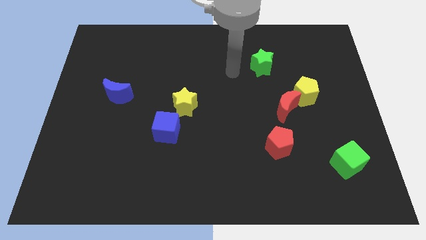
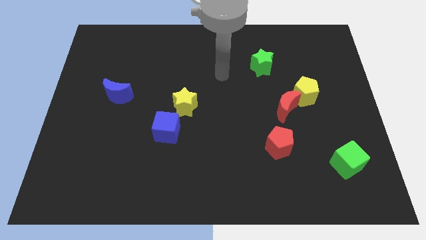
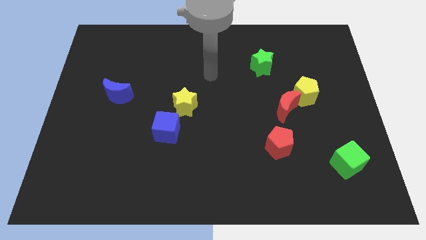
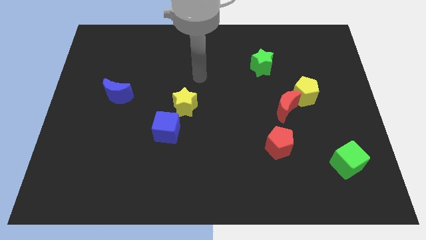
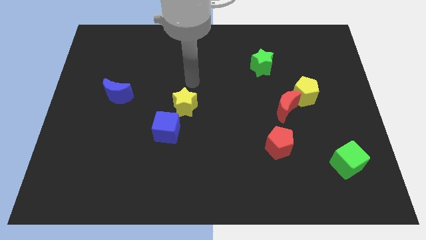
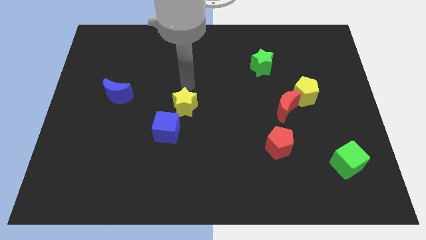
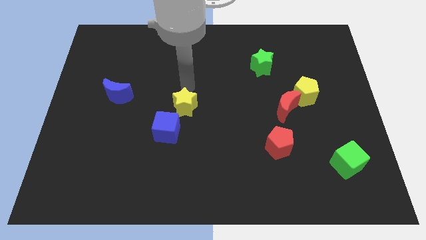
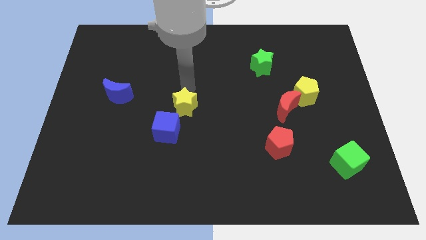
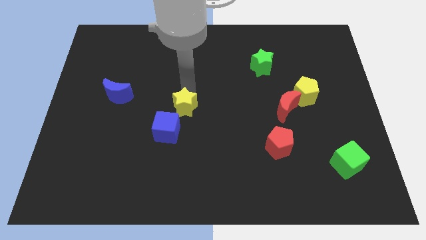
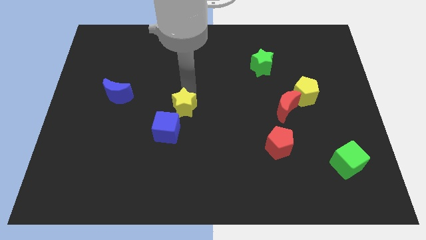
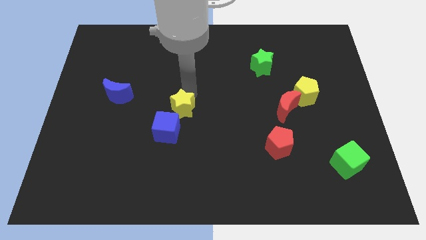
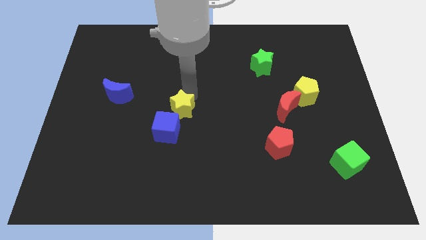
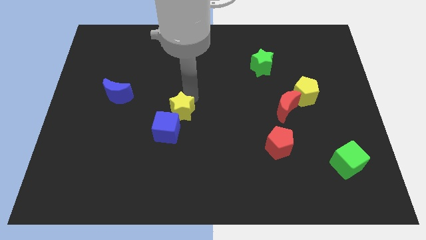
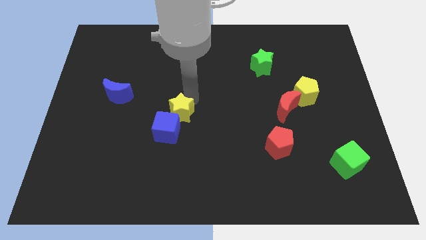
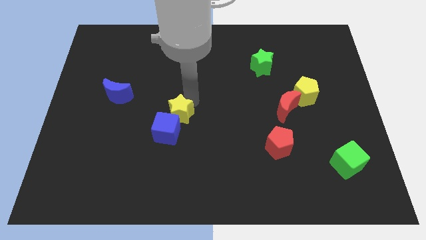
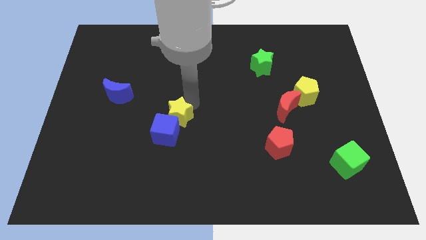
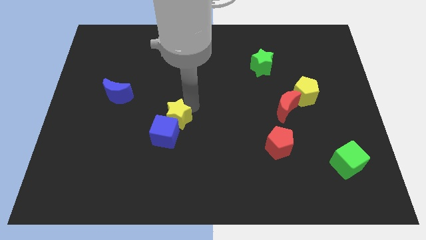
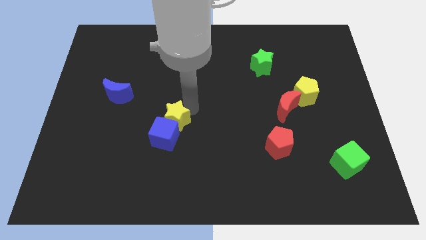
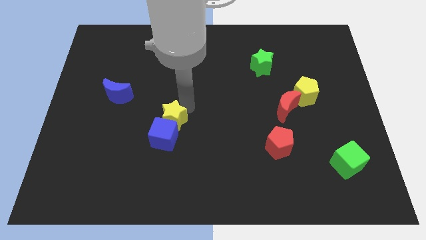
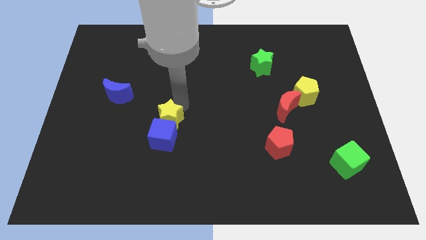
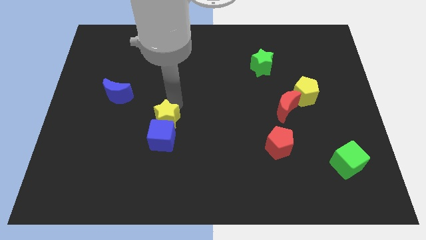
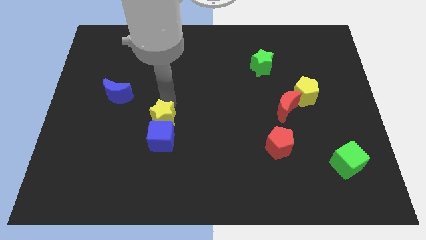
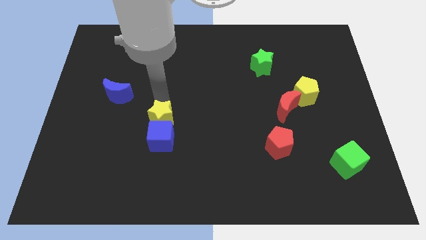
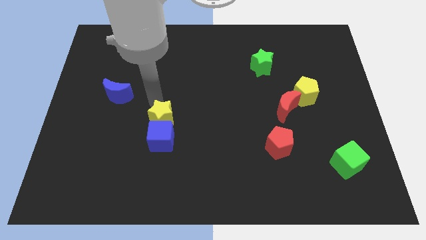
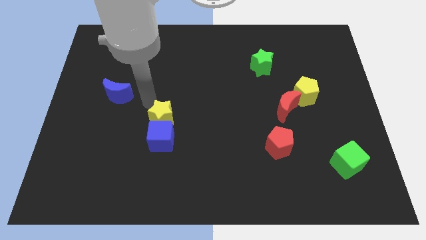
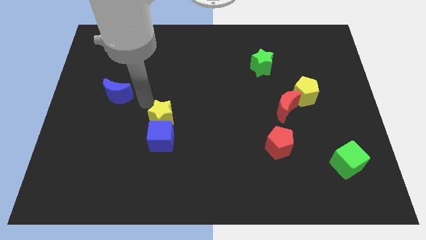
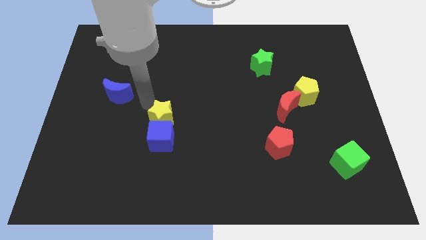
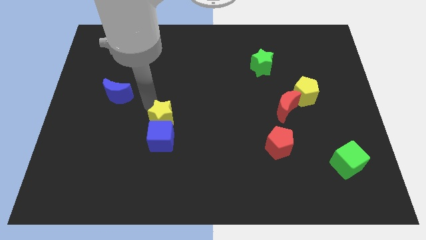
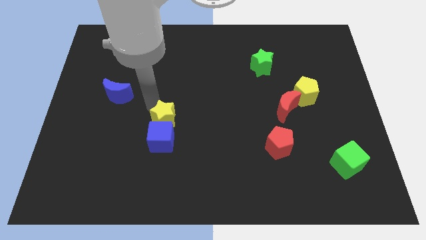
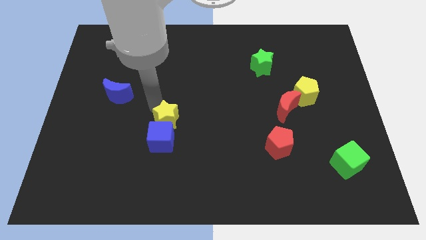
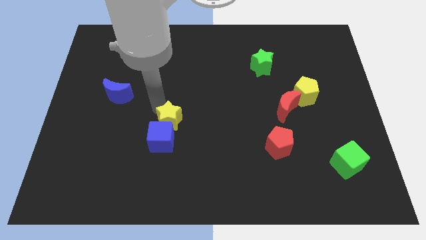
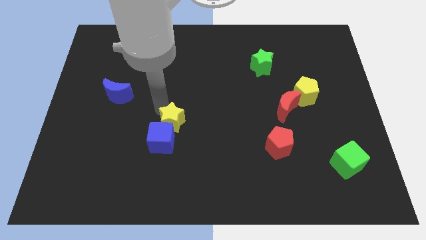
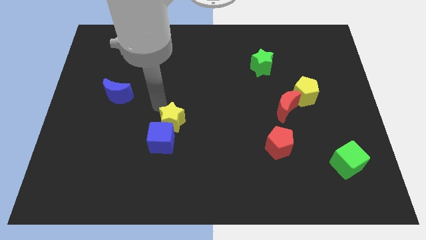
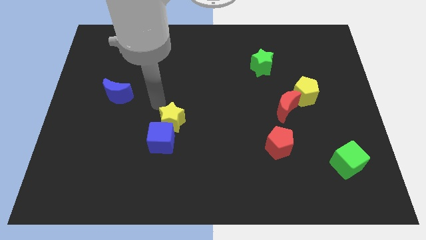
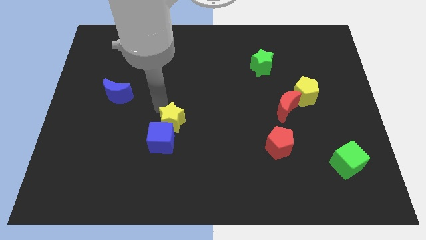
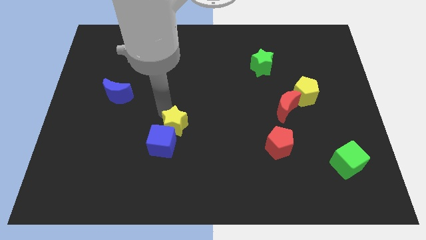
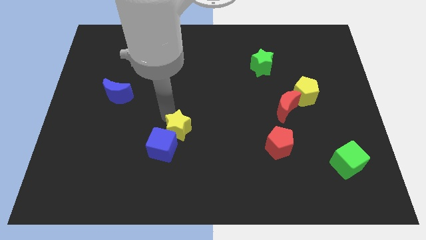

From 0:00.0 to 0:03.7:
move the yellow star downwards slightly

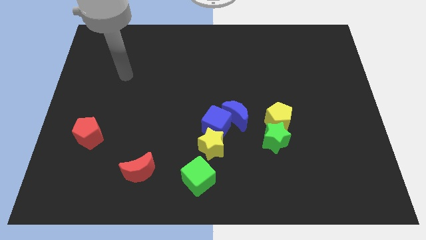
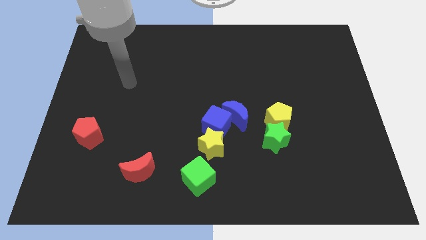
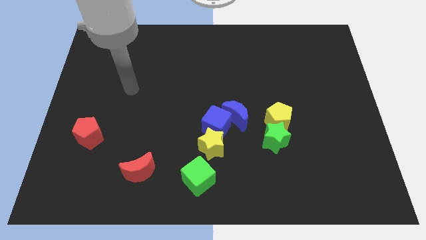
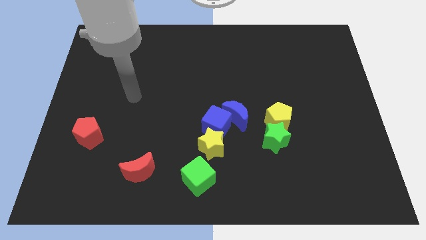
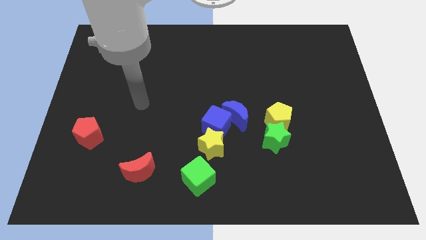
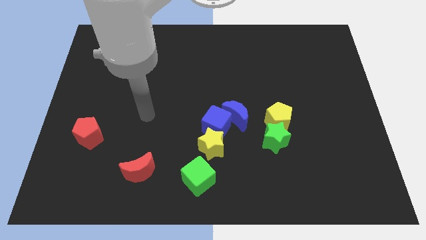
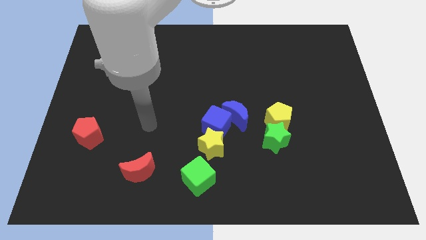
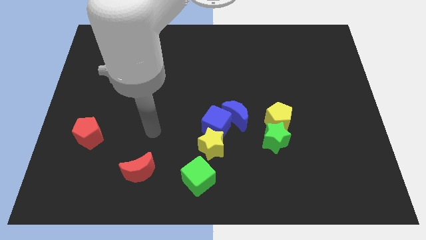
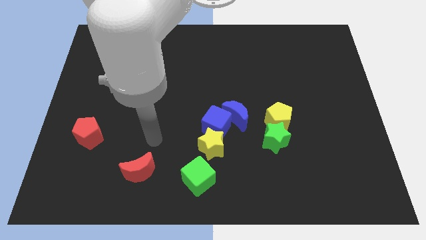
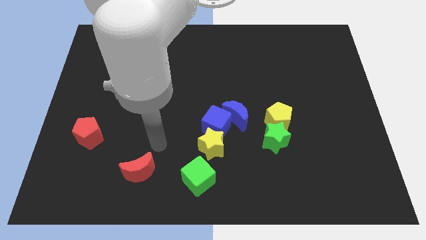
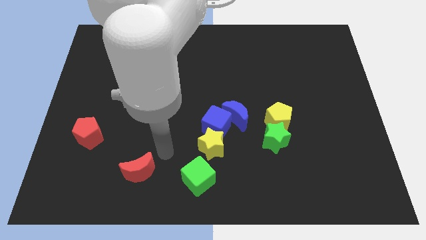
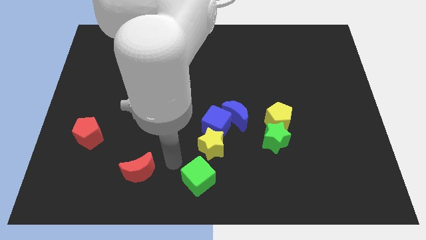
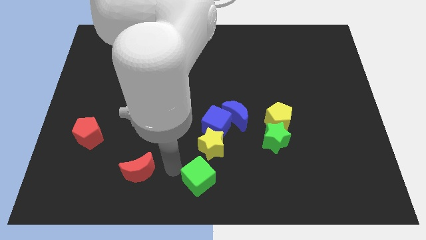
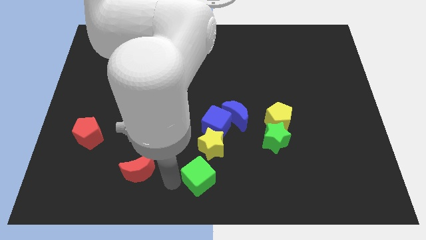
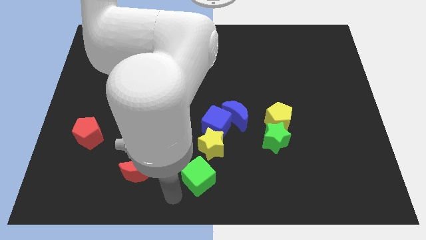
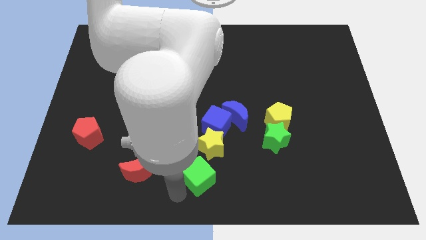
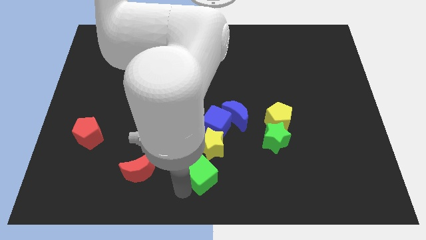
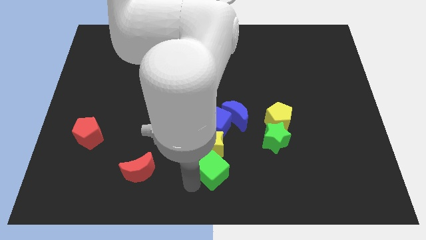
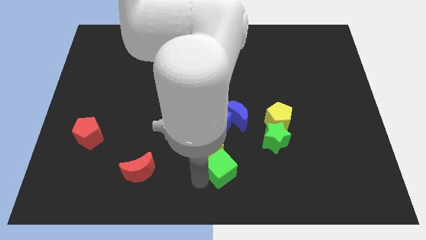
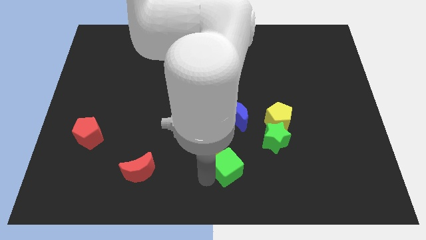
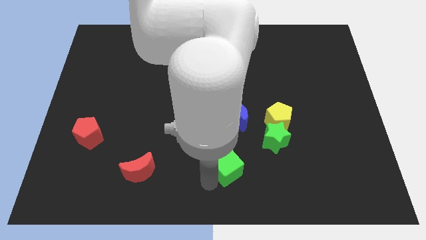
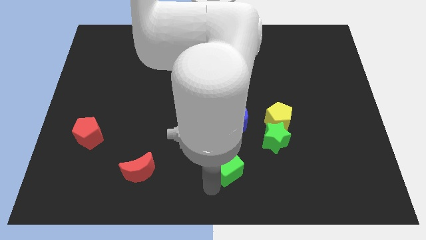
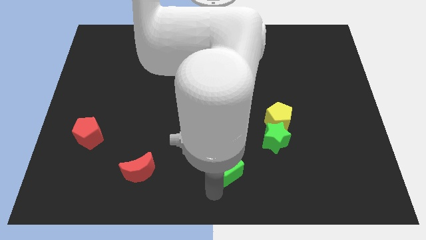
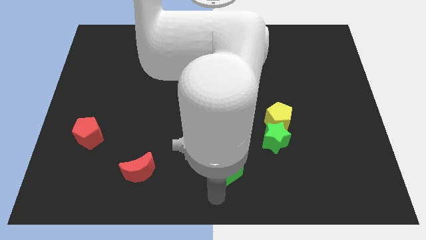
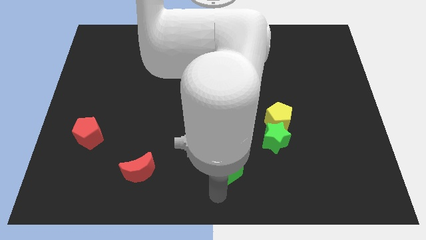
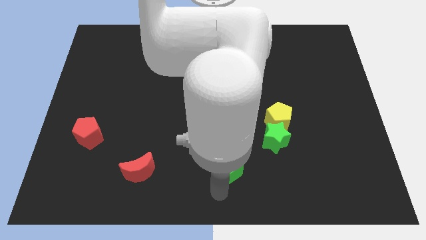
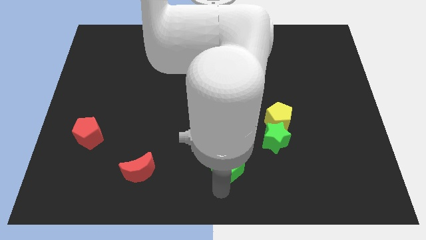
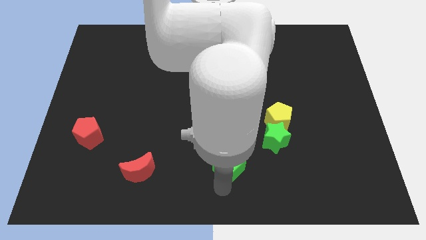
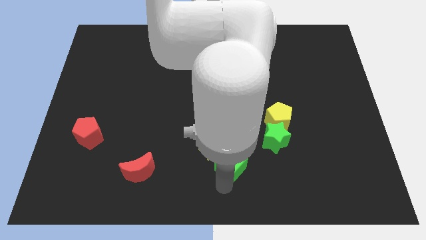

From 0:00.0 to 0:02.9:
slightly slide the green cube diagonally up and to the right

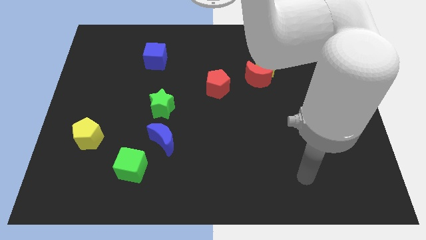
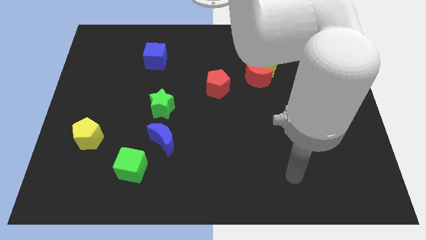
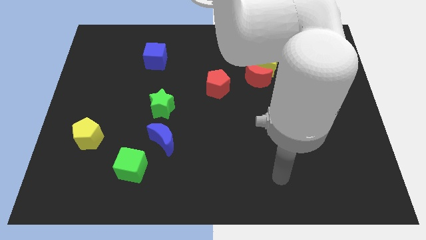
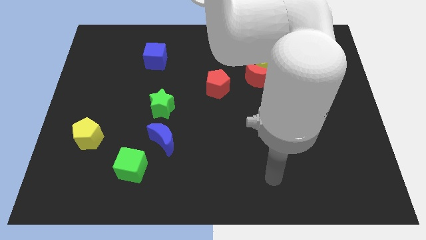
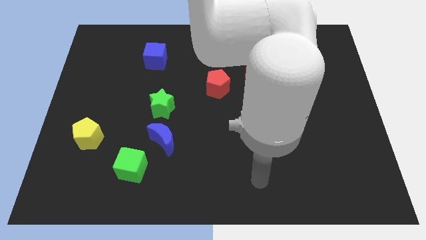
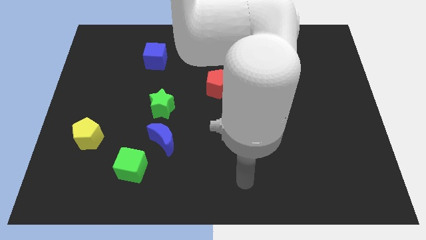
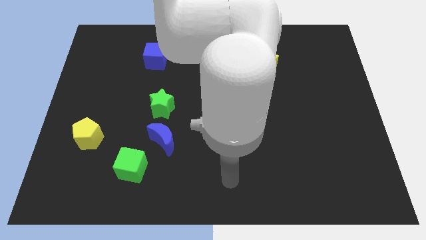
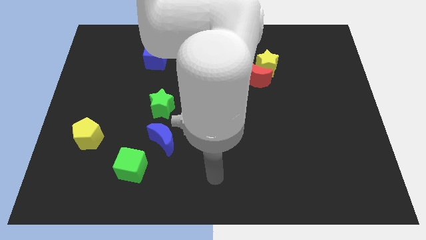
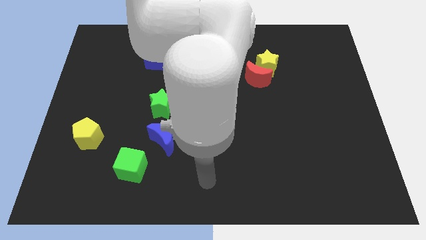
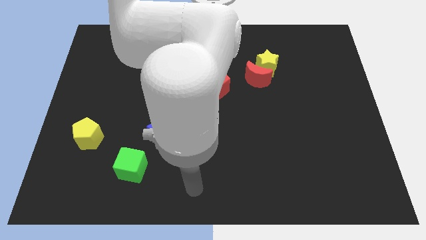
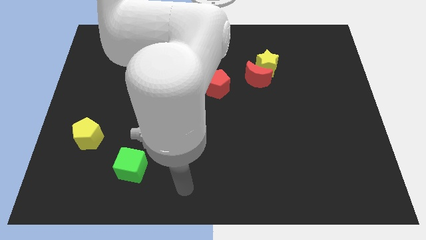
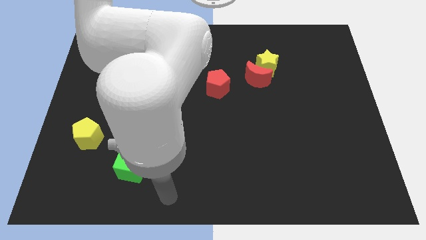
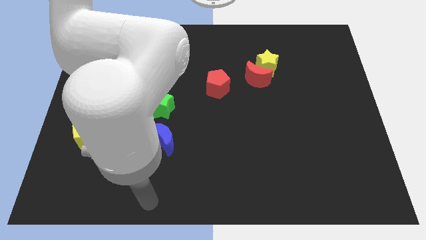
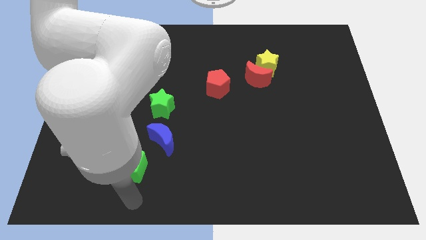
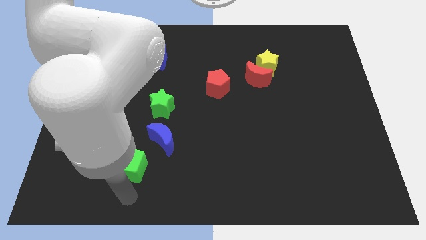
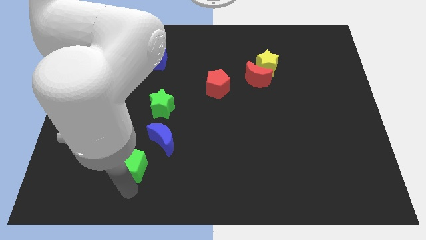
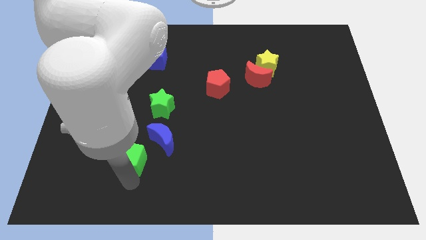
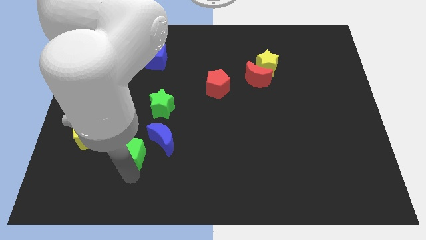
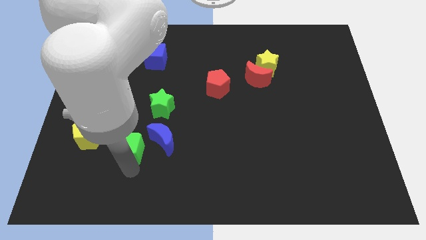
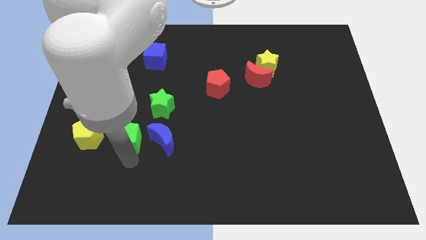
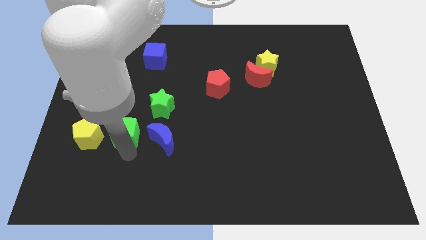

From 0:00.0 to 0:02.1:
push the green cube up a little
